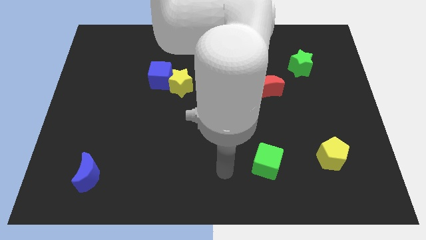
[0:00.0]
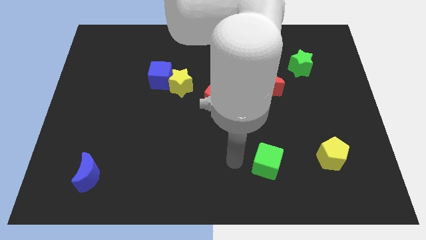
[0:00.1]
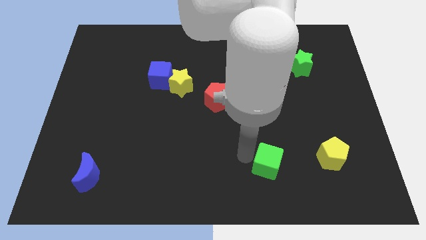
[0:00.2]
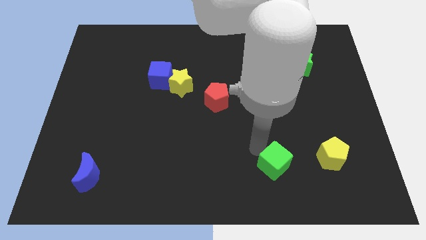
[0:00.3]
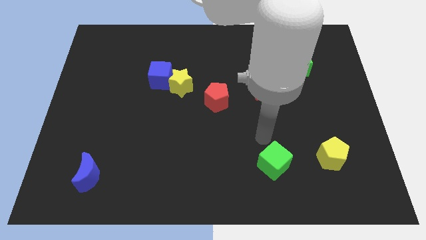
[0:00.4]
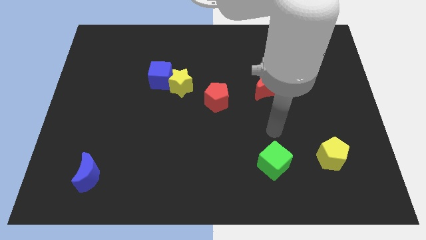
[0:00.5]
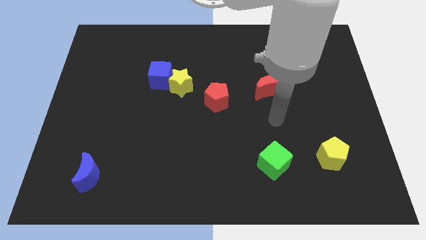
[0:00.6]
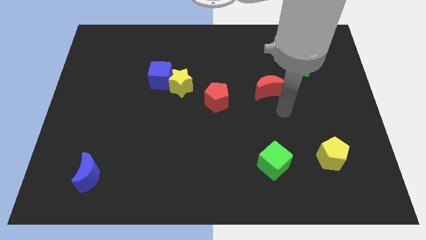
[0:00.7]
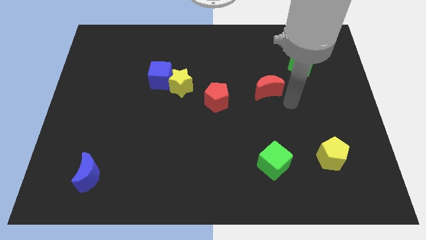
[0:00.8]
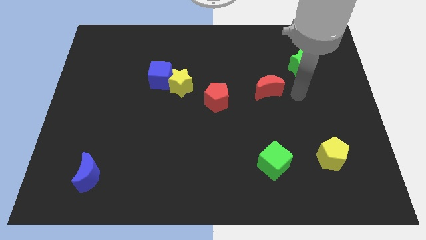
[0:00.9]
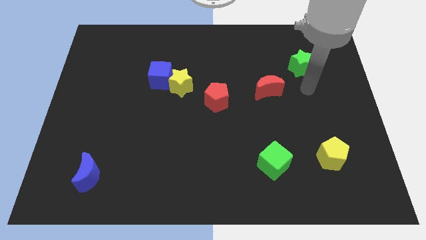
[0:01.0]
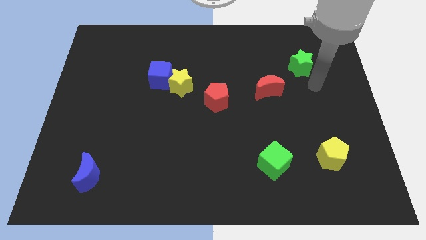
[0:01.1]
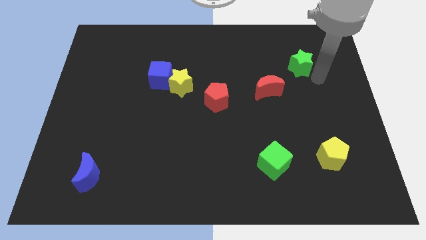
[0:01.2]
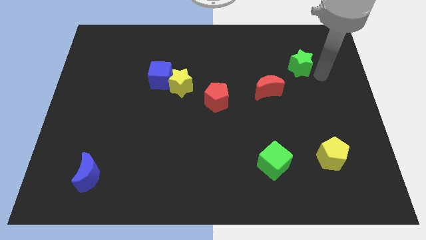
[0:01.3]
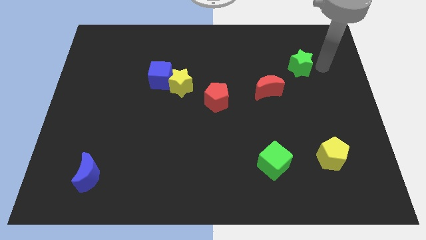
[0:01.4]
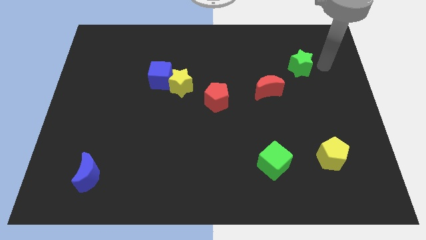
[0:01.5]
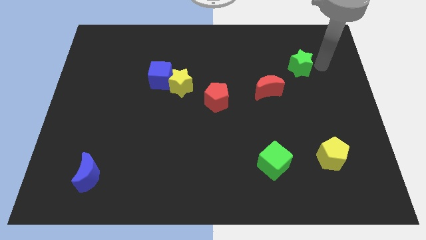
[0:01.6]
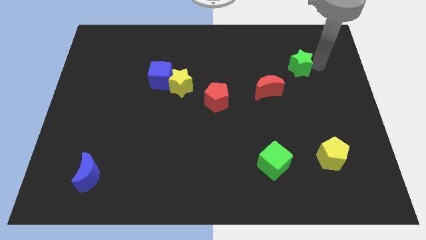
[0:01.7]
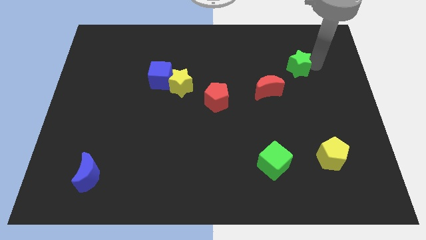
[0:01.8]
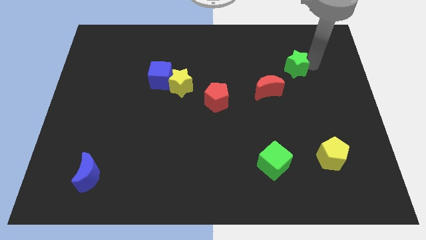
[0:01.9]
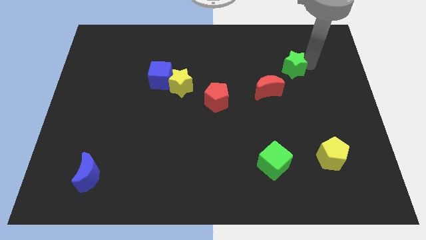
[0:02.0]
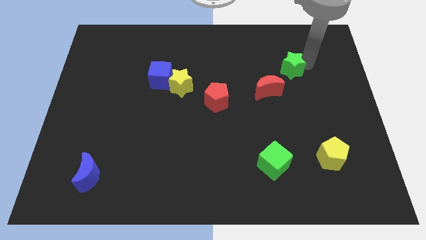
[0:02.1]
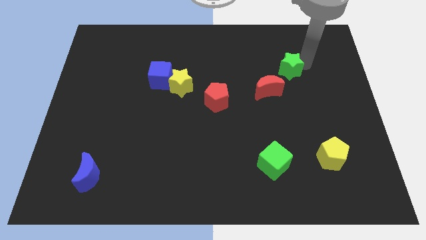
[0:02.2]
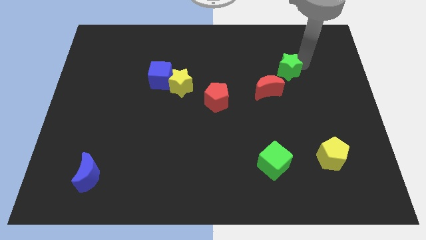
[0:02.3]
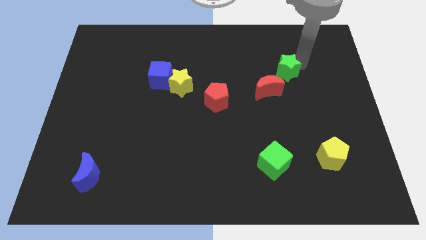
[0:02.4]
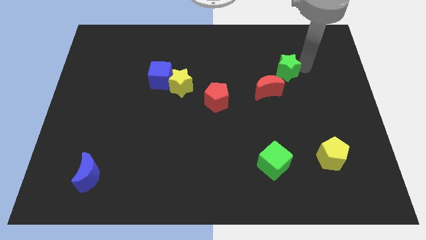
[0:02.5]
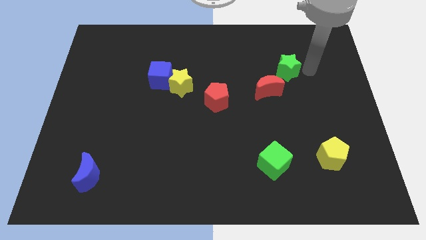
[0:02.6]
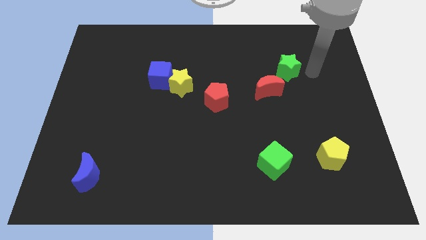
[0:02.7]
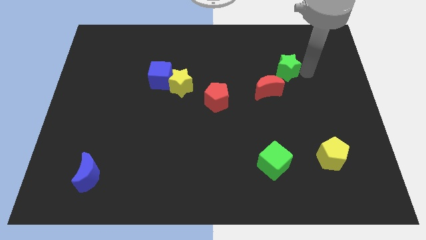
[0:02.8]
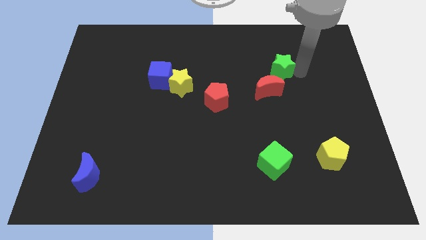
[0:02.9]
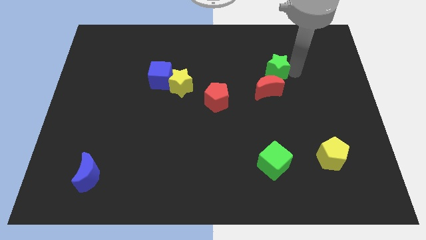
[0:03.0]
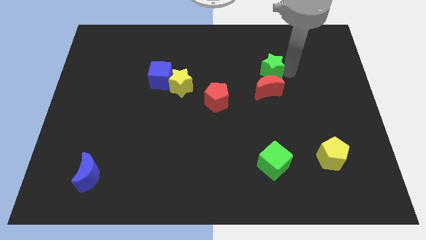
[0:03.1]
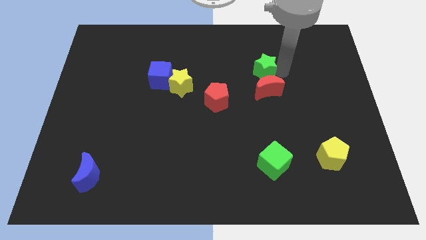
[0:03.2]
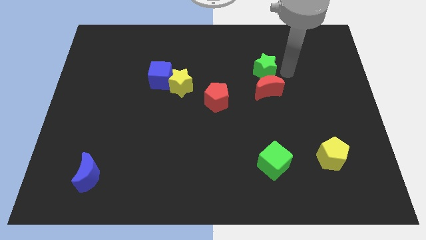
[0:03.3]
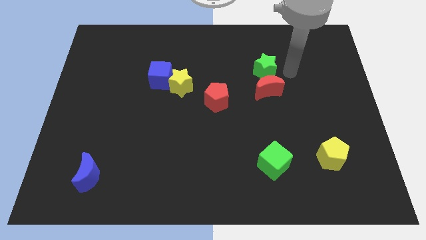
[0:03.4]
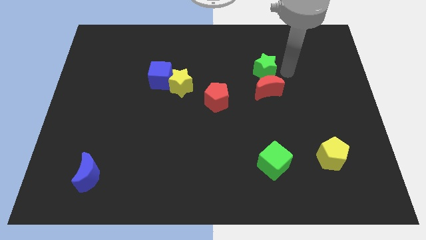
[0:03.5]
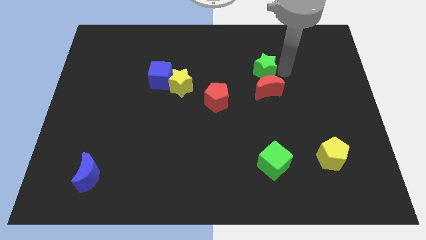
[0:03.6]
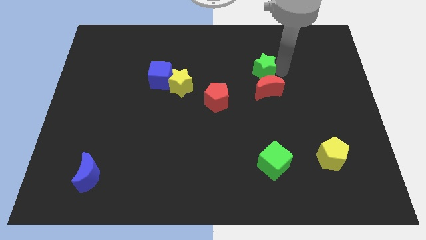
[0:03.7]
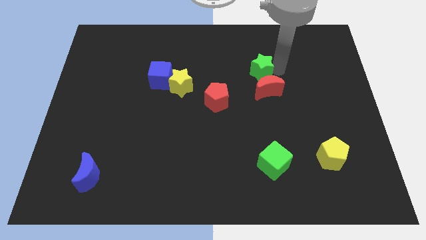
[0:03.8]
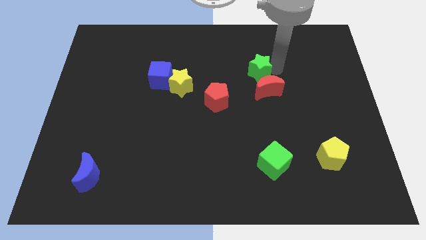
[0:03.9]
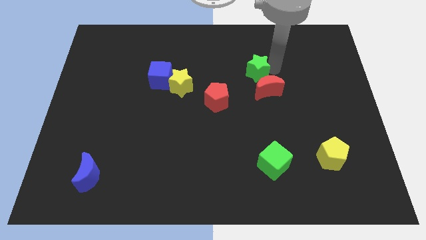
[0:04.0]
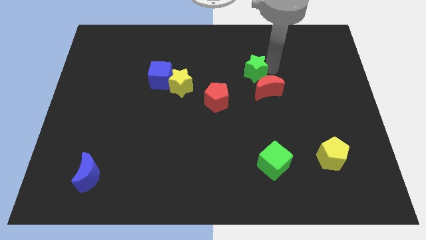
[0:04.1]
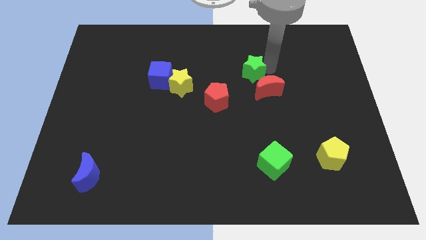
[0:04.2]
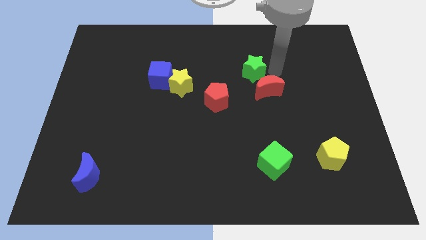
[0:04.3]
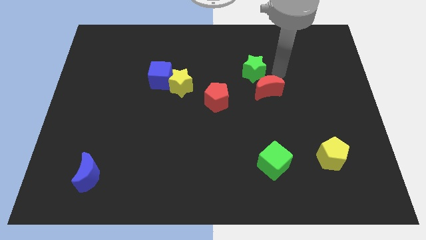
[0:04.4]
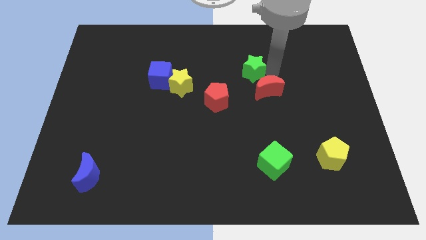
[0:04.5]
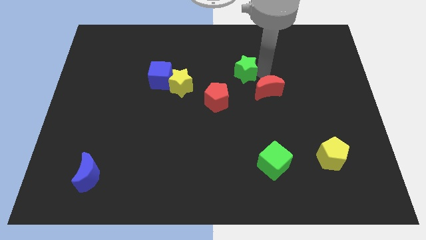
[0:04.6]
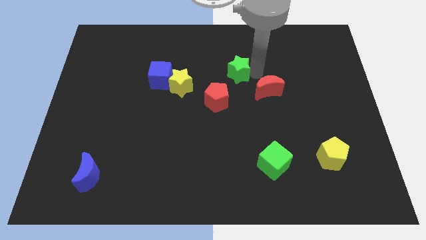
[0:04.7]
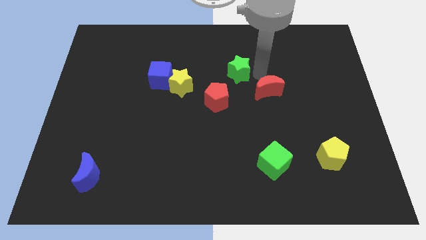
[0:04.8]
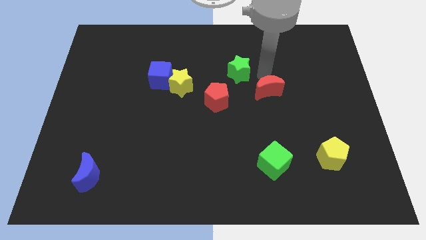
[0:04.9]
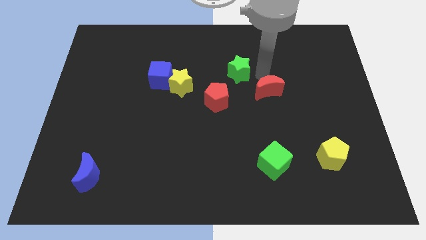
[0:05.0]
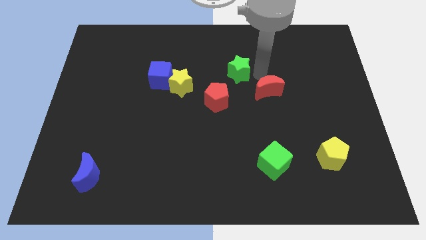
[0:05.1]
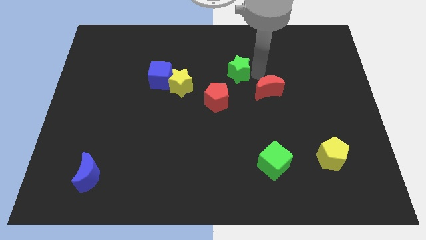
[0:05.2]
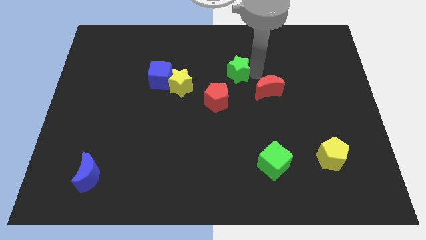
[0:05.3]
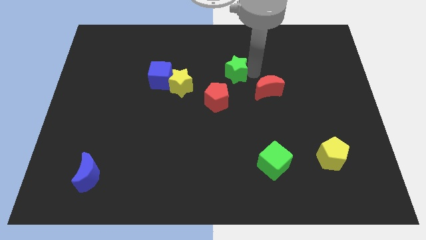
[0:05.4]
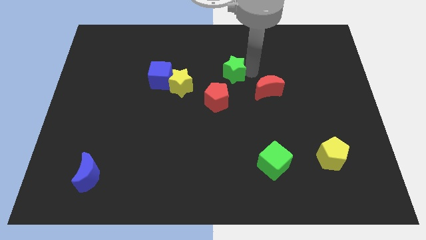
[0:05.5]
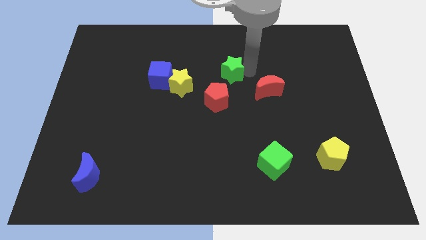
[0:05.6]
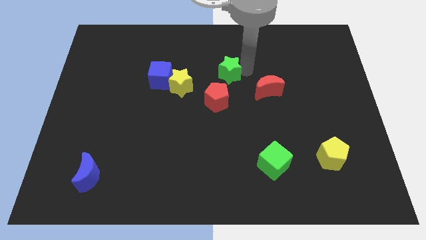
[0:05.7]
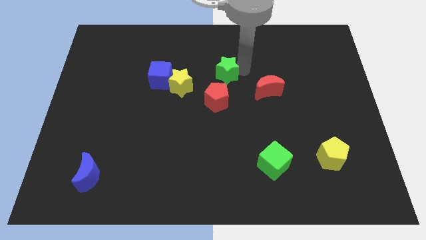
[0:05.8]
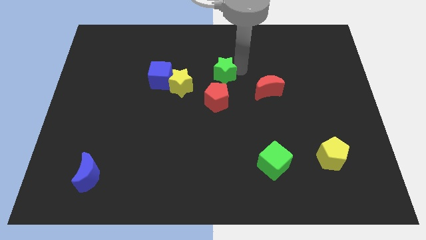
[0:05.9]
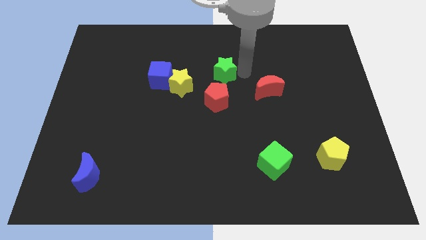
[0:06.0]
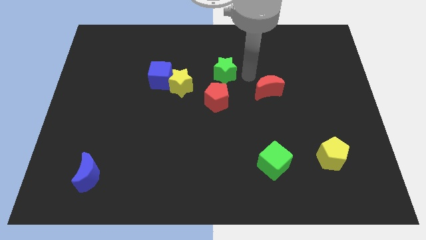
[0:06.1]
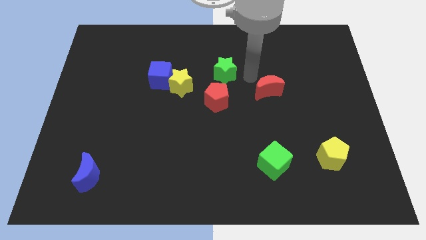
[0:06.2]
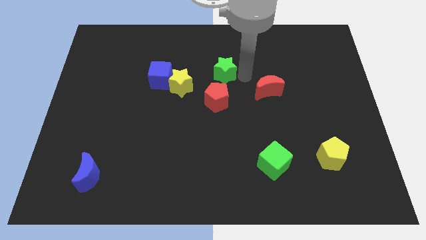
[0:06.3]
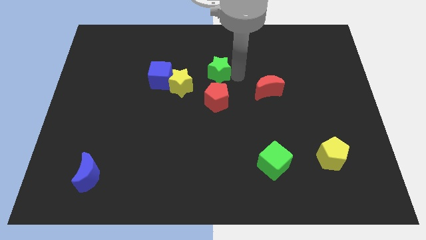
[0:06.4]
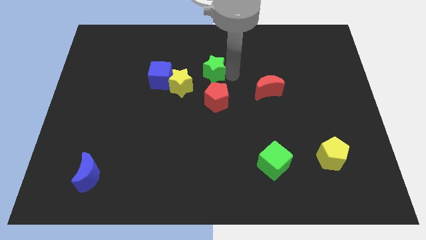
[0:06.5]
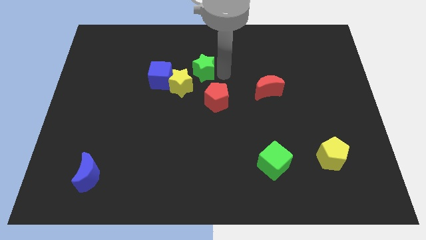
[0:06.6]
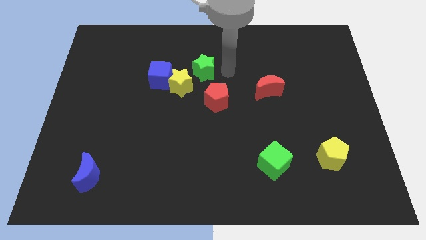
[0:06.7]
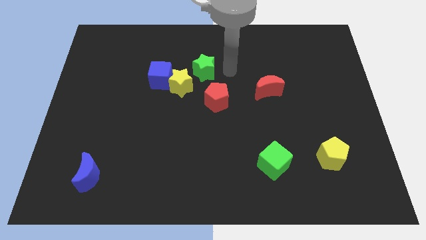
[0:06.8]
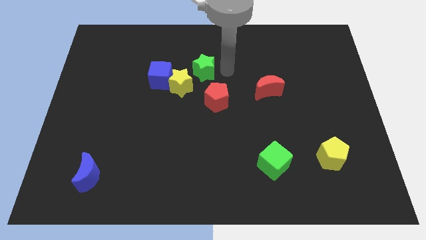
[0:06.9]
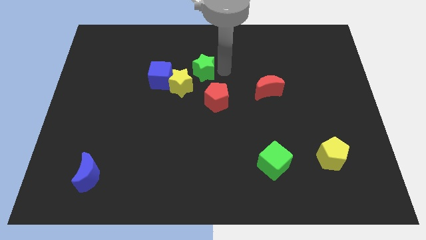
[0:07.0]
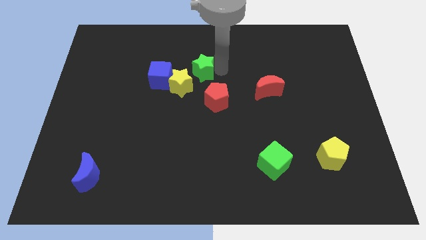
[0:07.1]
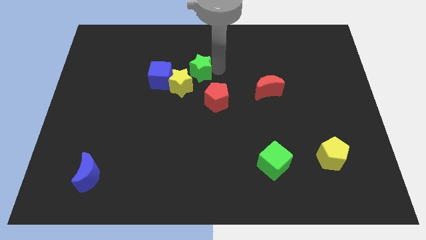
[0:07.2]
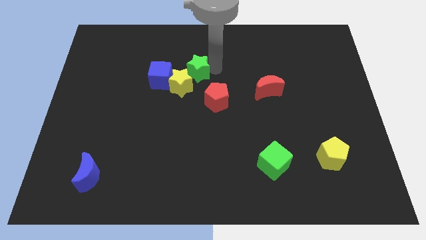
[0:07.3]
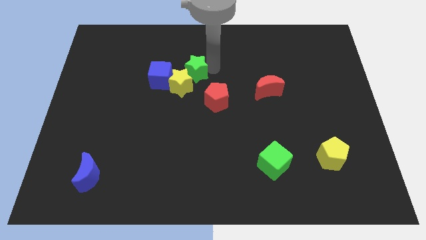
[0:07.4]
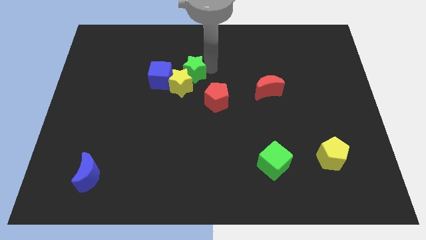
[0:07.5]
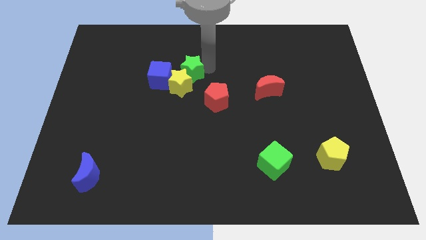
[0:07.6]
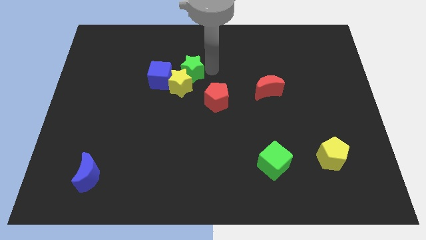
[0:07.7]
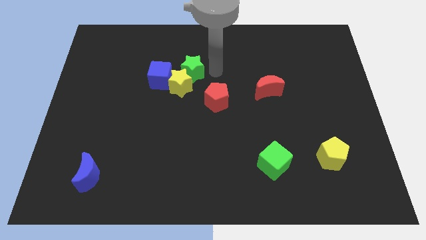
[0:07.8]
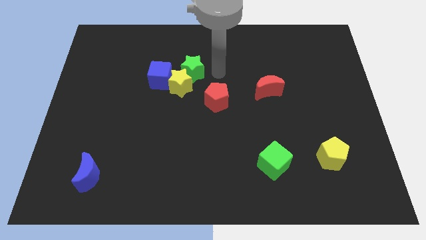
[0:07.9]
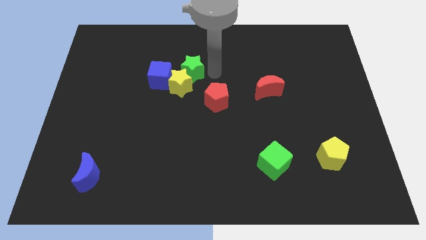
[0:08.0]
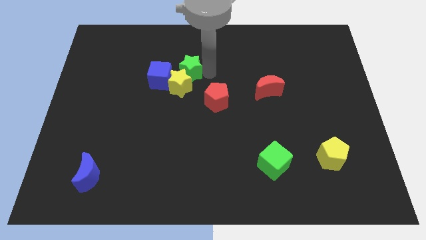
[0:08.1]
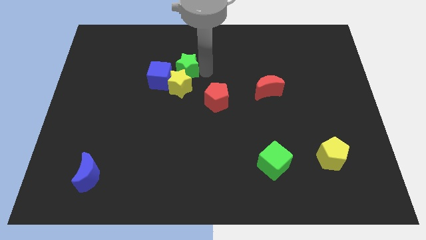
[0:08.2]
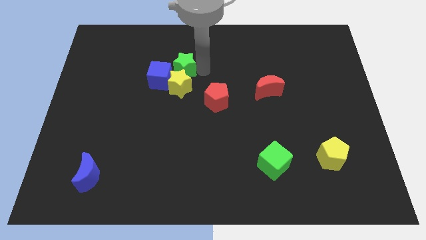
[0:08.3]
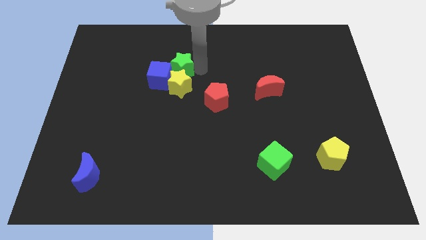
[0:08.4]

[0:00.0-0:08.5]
move the green star next to the blue cube
